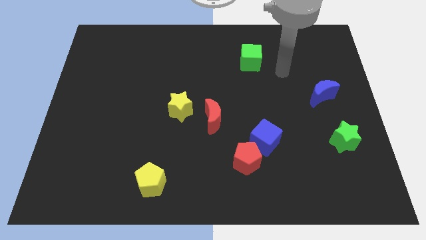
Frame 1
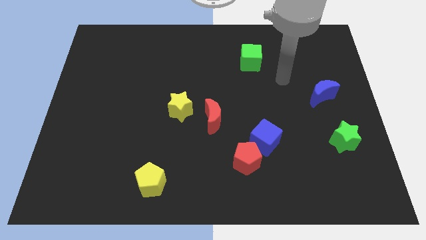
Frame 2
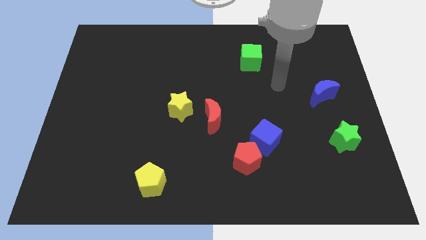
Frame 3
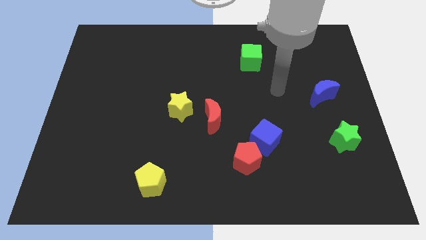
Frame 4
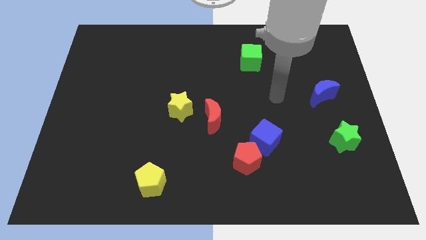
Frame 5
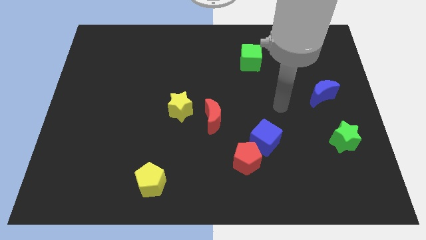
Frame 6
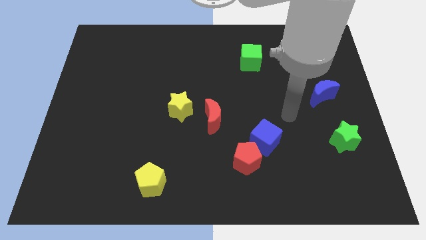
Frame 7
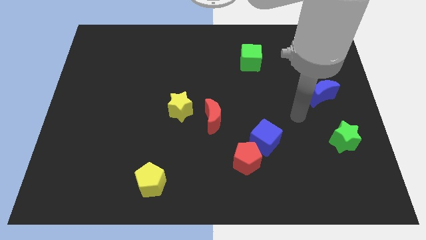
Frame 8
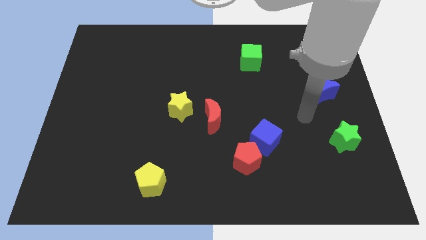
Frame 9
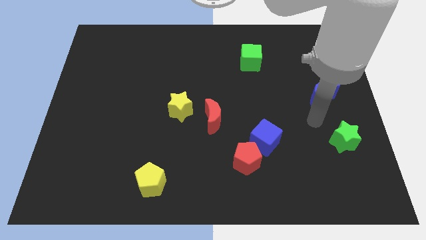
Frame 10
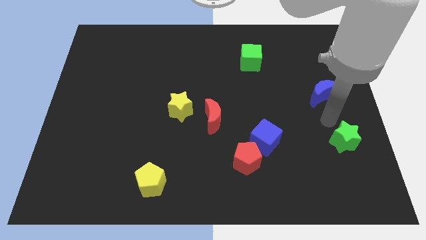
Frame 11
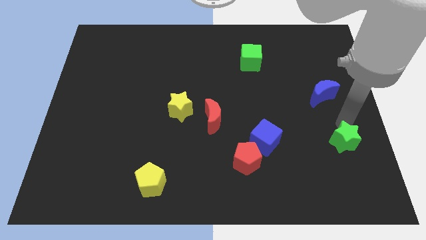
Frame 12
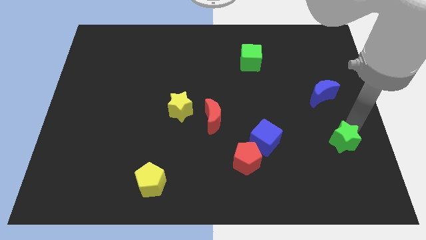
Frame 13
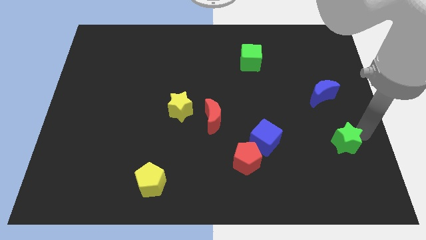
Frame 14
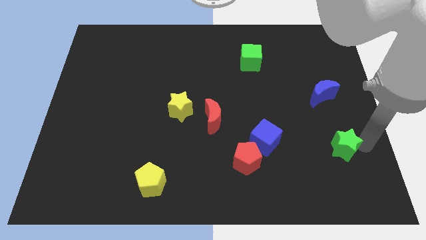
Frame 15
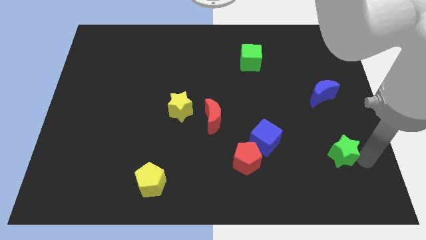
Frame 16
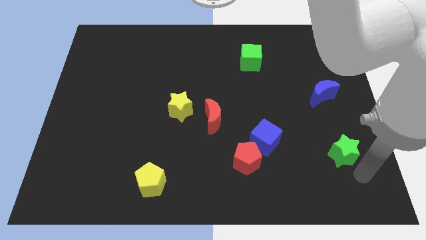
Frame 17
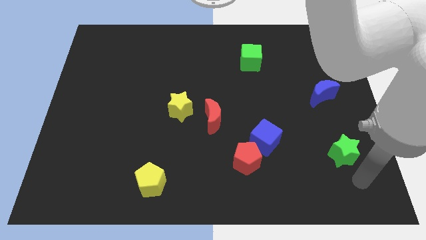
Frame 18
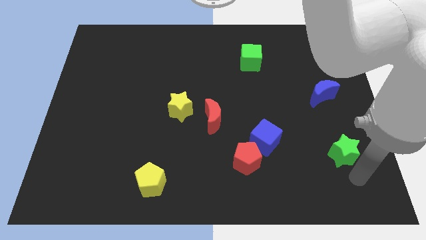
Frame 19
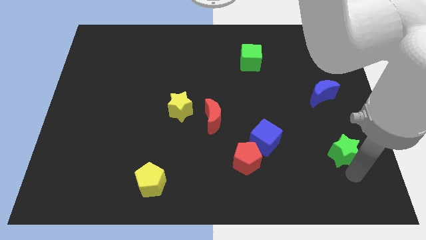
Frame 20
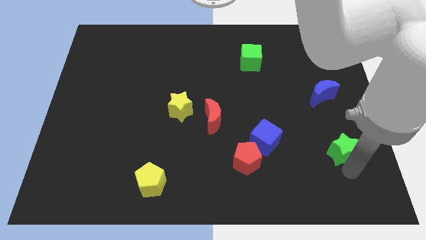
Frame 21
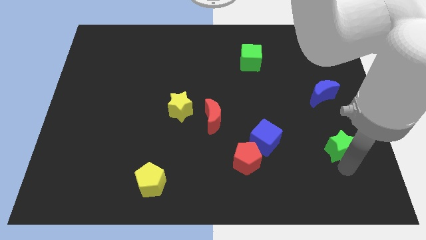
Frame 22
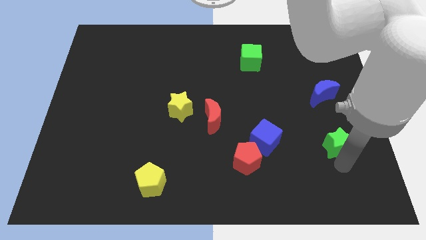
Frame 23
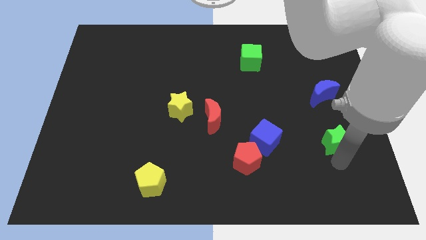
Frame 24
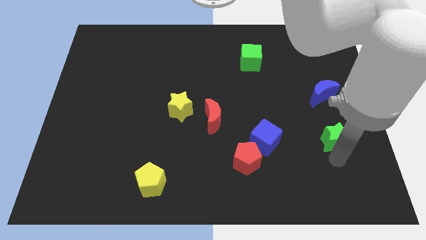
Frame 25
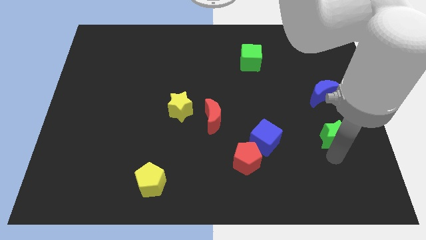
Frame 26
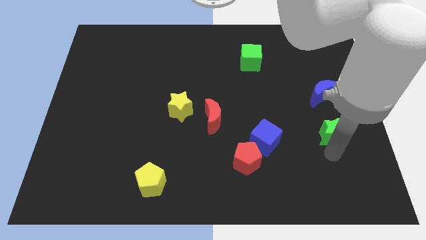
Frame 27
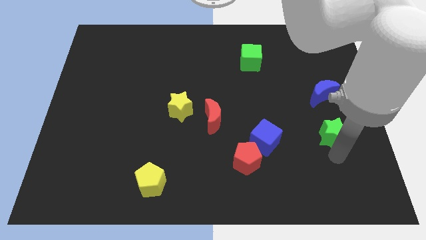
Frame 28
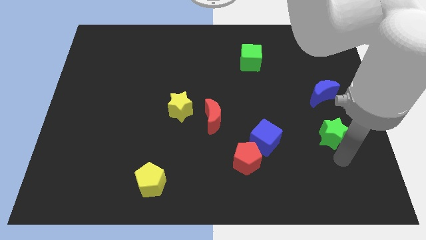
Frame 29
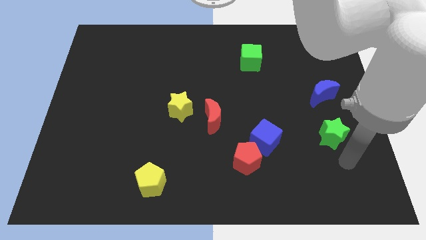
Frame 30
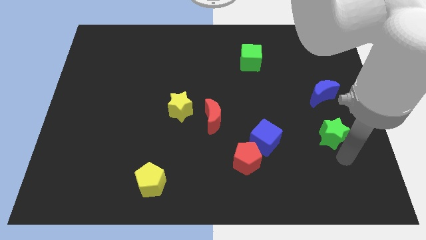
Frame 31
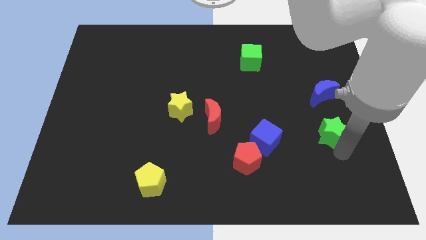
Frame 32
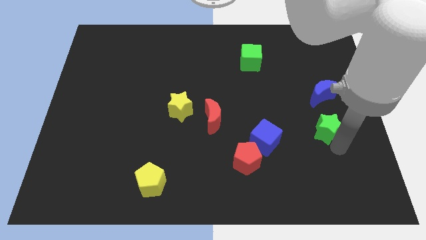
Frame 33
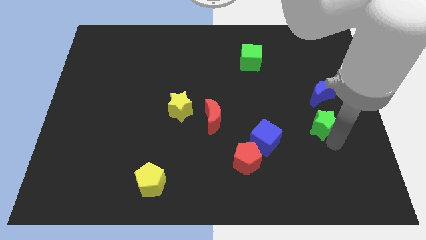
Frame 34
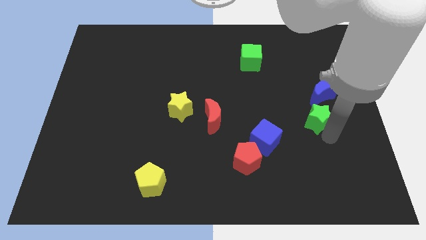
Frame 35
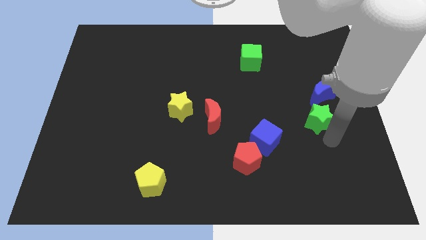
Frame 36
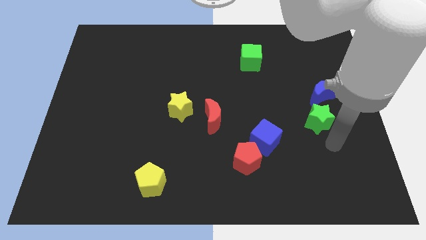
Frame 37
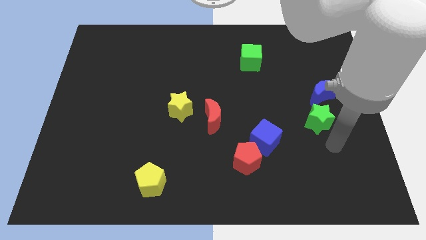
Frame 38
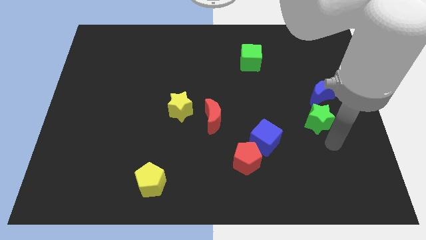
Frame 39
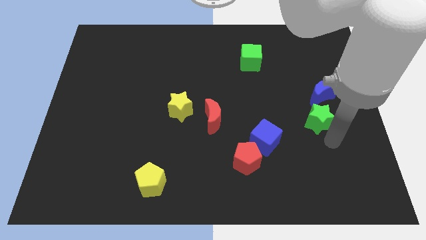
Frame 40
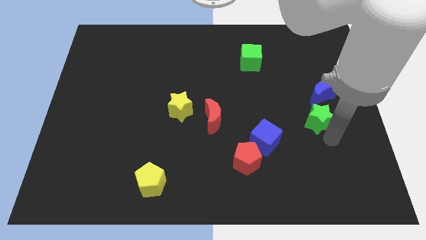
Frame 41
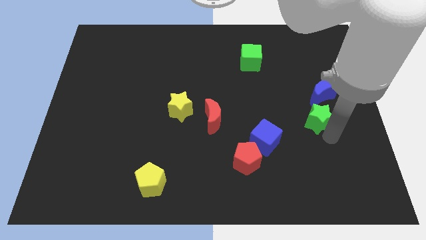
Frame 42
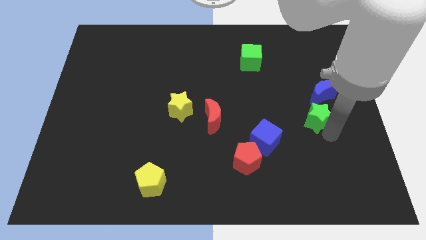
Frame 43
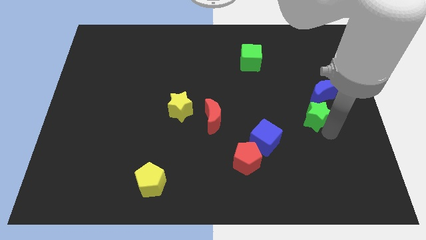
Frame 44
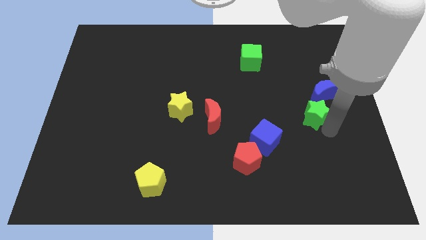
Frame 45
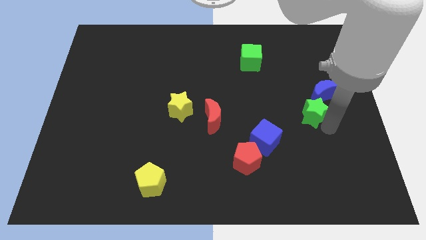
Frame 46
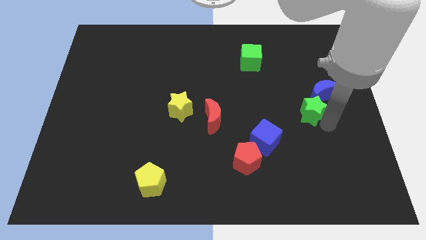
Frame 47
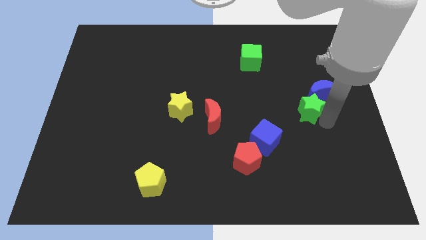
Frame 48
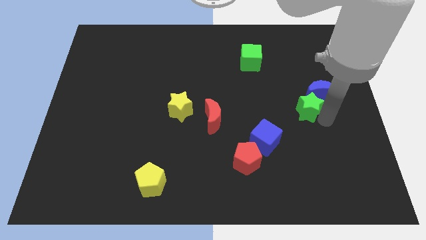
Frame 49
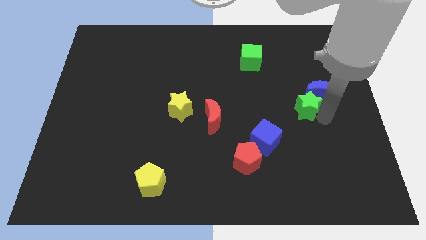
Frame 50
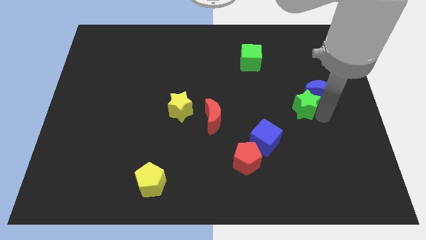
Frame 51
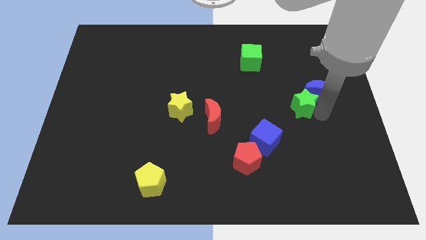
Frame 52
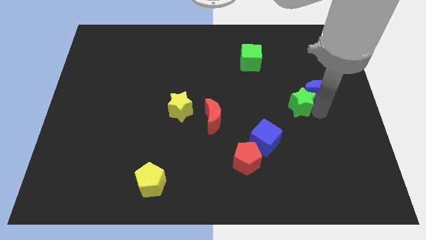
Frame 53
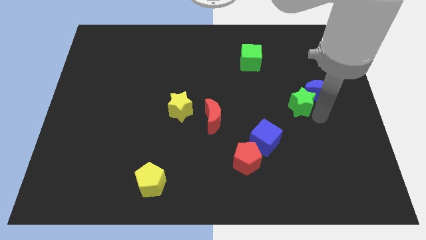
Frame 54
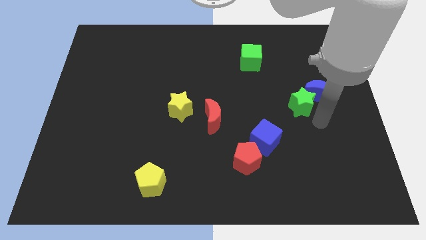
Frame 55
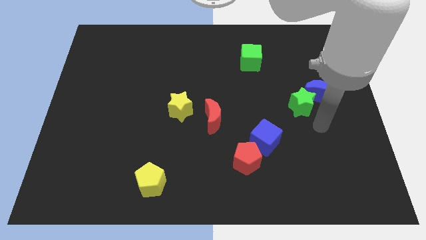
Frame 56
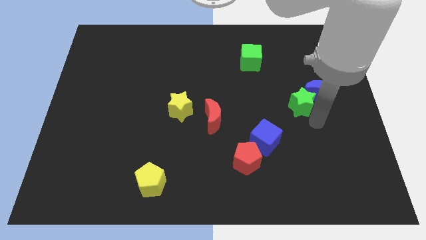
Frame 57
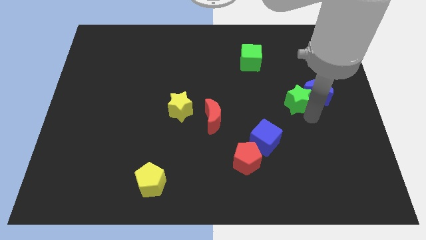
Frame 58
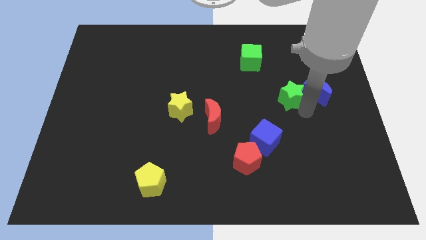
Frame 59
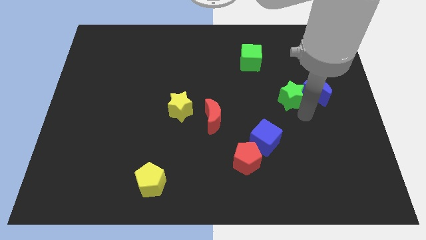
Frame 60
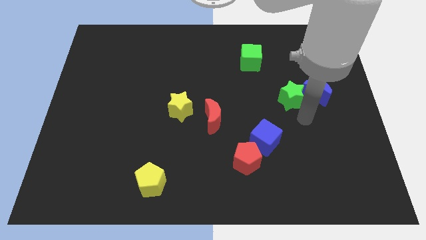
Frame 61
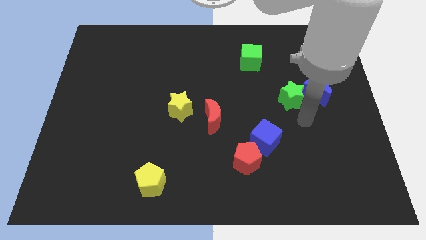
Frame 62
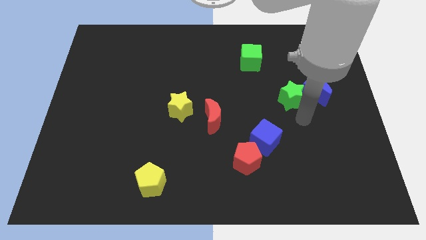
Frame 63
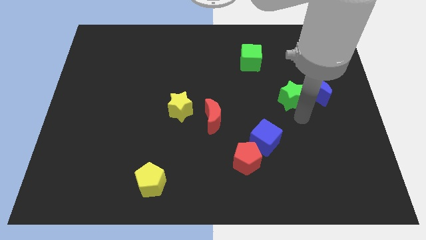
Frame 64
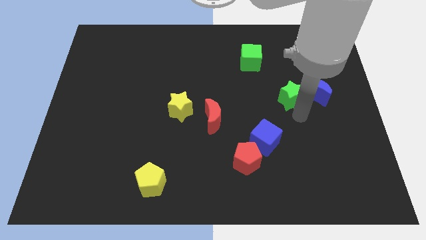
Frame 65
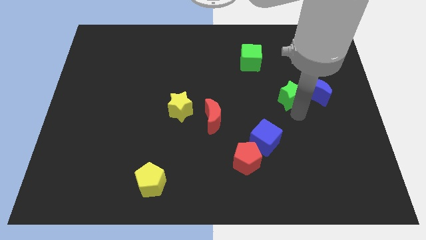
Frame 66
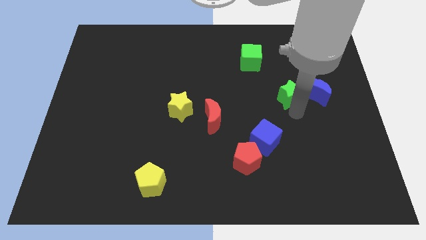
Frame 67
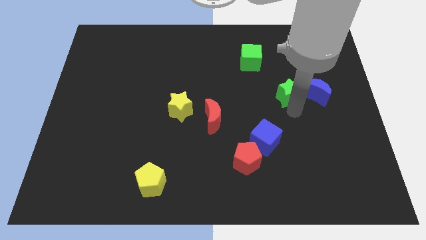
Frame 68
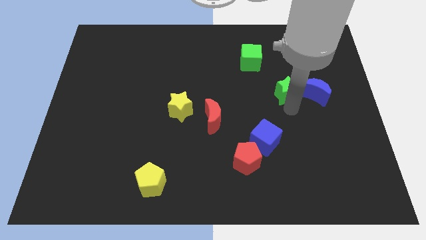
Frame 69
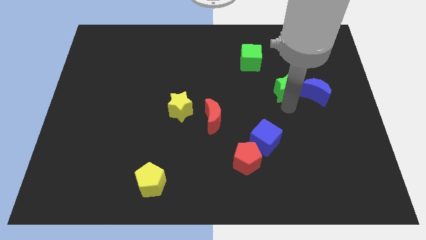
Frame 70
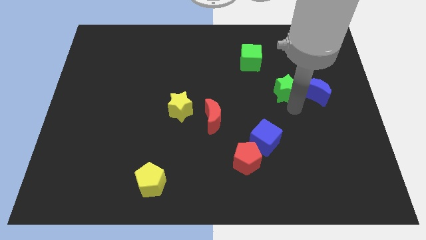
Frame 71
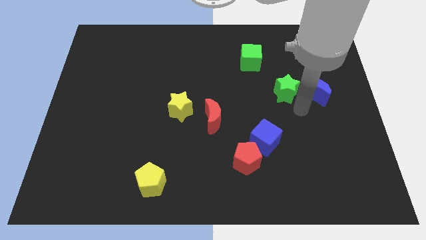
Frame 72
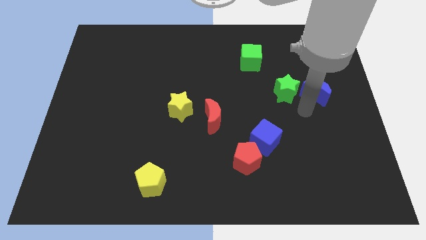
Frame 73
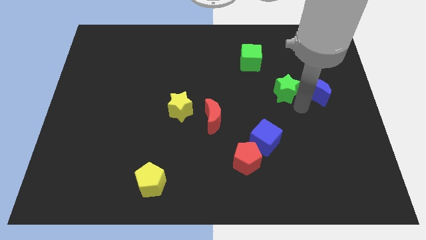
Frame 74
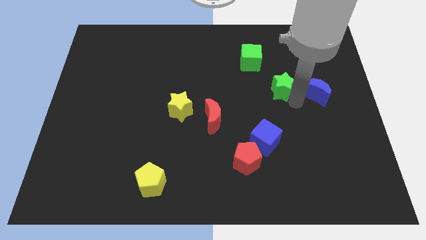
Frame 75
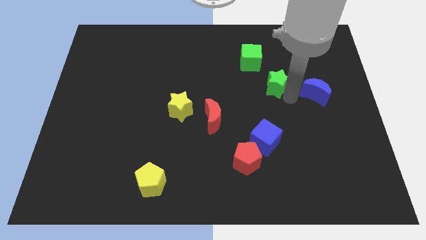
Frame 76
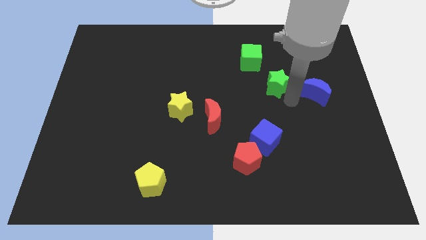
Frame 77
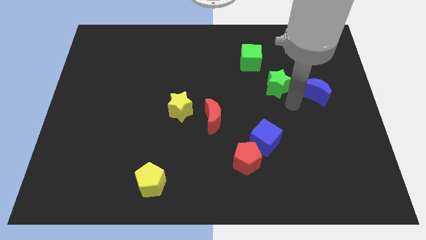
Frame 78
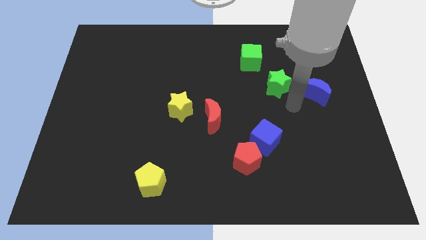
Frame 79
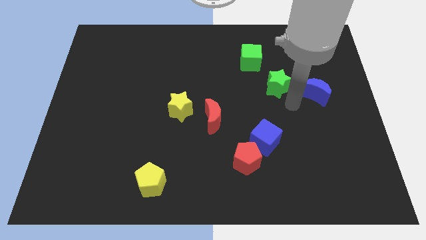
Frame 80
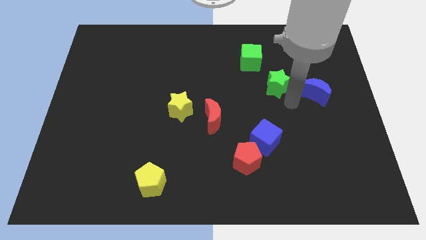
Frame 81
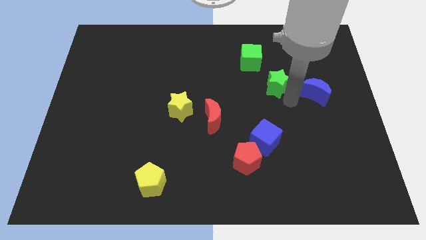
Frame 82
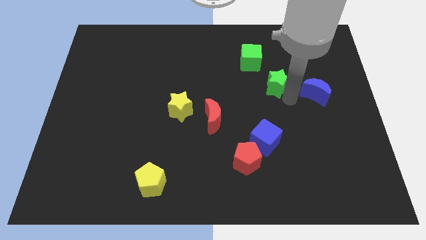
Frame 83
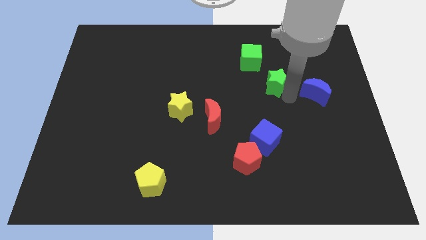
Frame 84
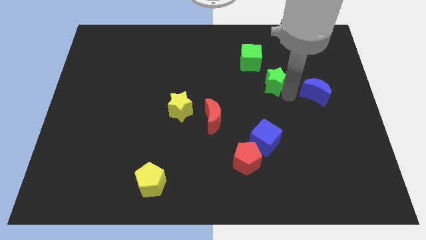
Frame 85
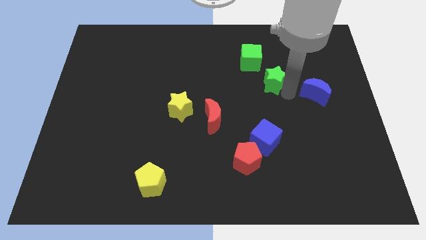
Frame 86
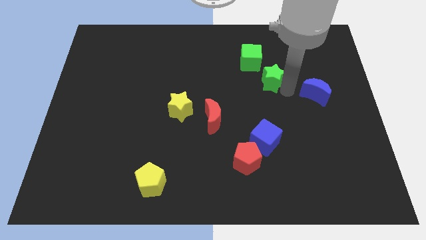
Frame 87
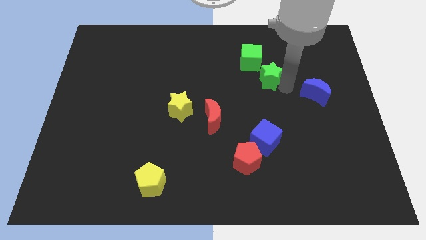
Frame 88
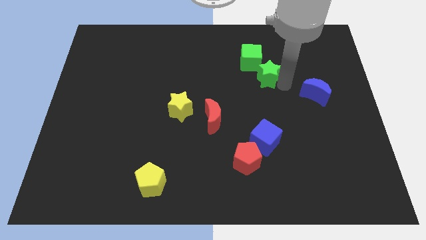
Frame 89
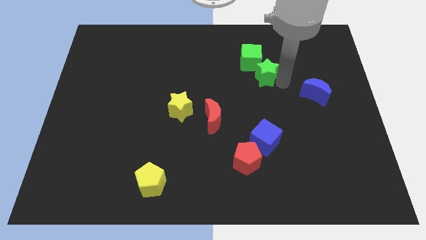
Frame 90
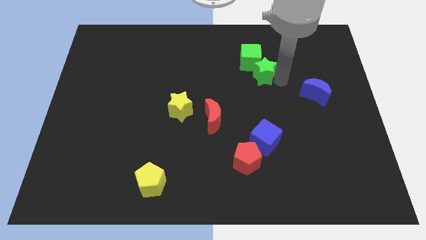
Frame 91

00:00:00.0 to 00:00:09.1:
slide the green star close to the green cube
